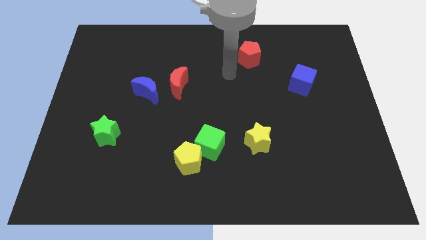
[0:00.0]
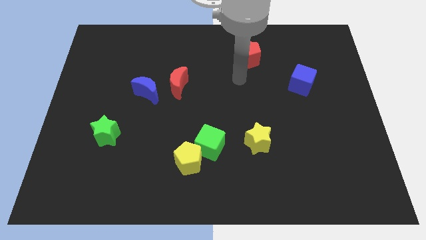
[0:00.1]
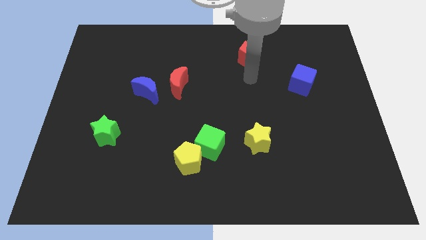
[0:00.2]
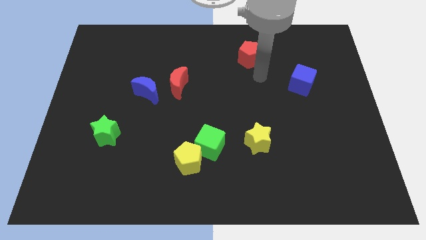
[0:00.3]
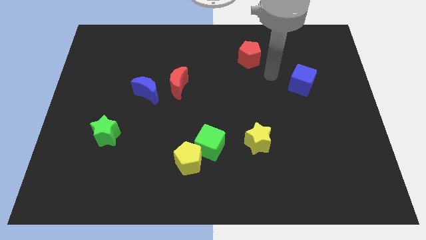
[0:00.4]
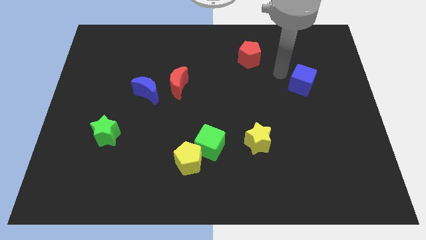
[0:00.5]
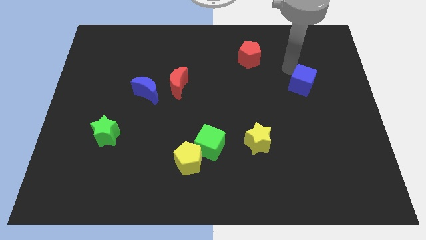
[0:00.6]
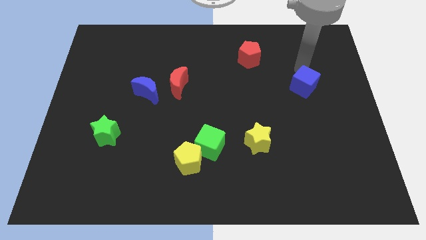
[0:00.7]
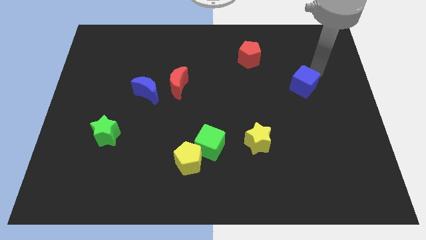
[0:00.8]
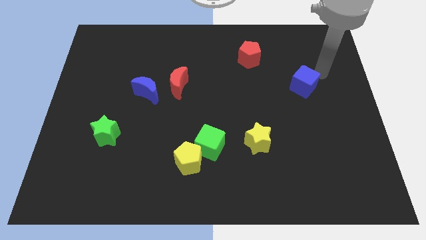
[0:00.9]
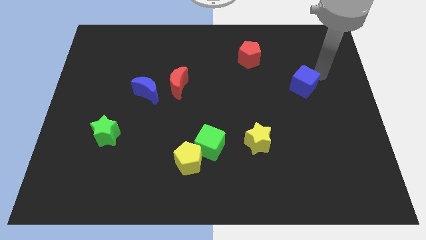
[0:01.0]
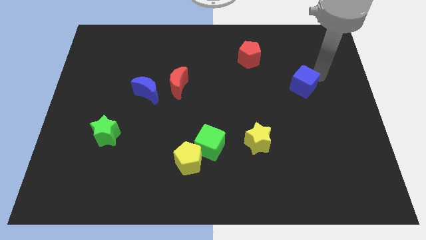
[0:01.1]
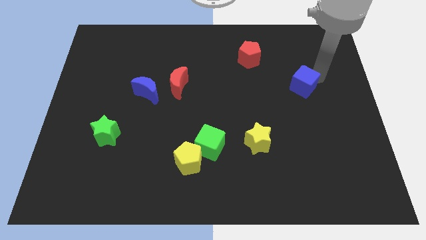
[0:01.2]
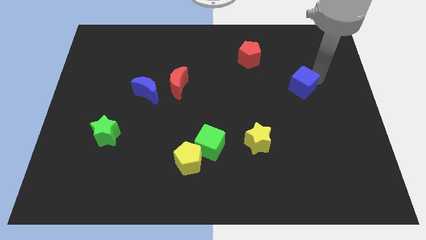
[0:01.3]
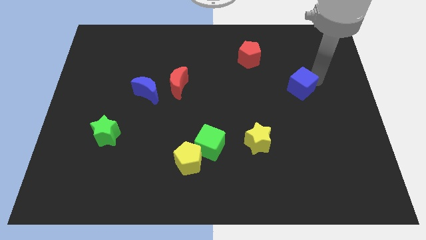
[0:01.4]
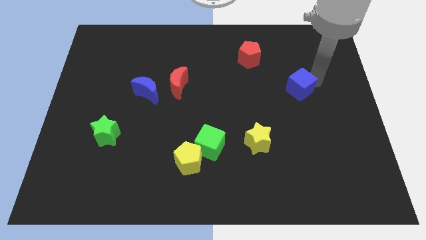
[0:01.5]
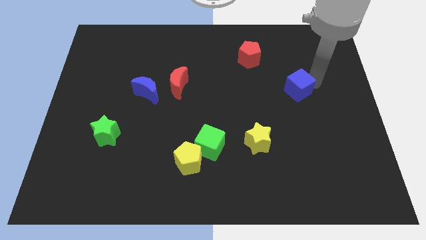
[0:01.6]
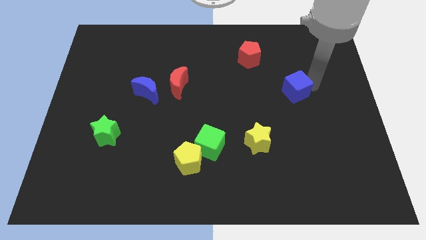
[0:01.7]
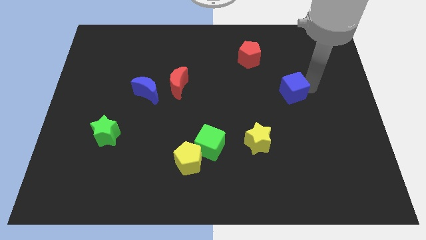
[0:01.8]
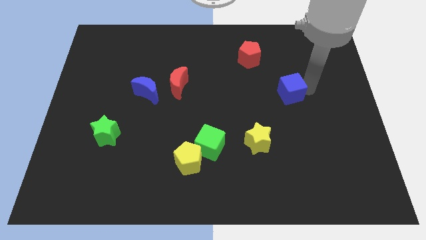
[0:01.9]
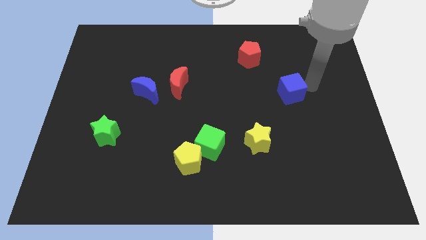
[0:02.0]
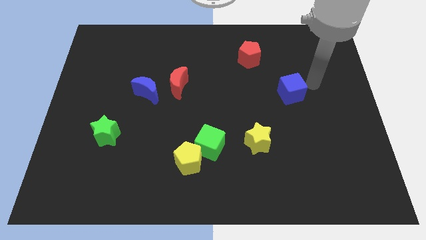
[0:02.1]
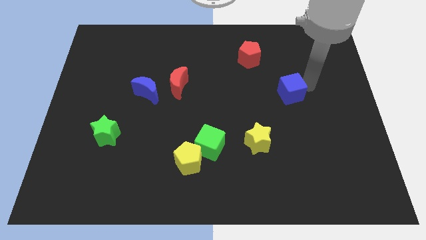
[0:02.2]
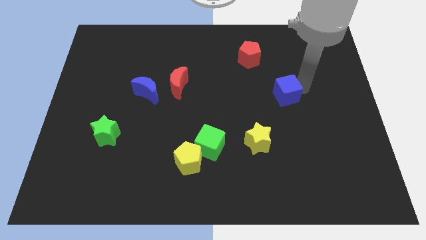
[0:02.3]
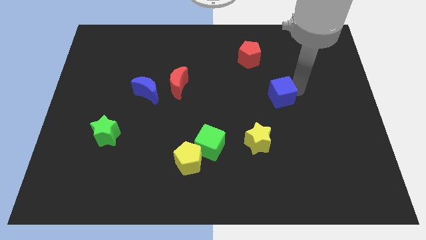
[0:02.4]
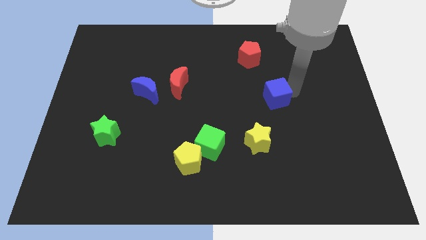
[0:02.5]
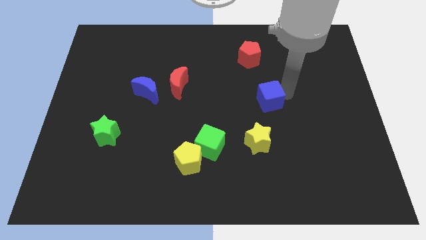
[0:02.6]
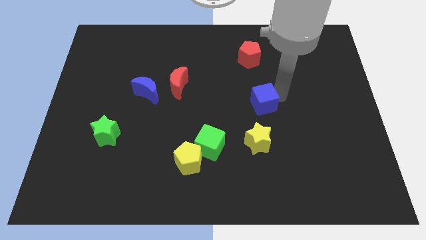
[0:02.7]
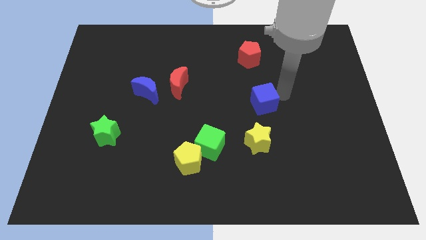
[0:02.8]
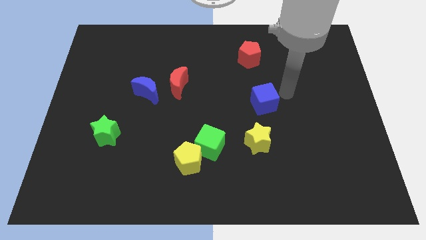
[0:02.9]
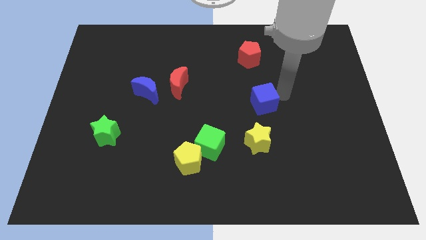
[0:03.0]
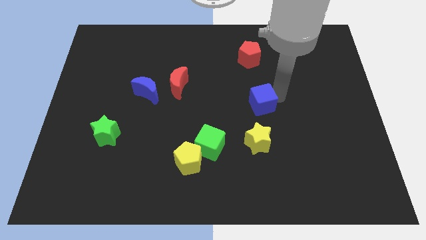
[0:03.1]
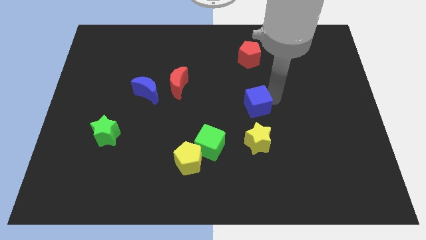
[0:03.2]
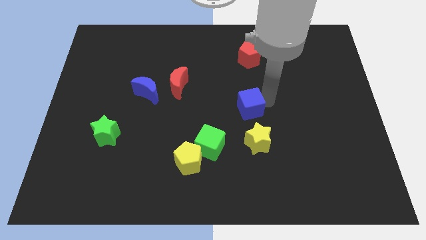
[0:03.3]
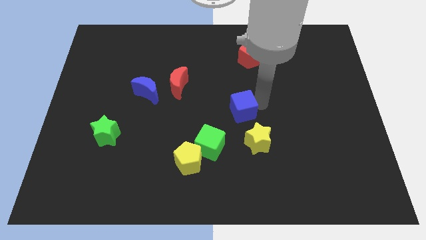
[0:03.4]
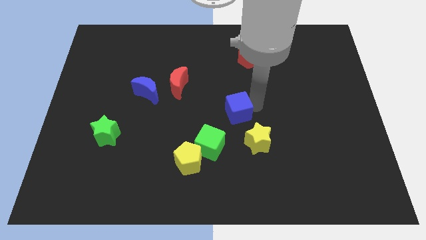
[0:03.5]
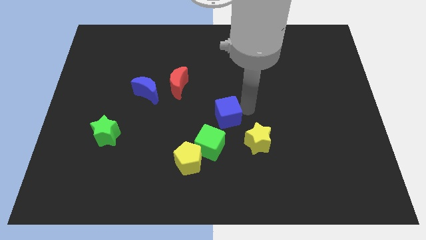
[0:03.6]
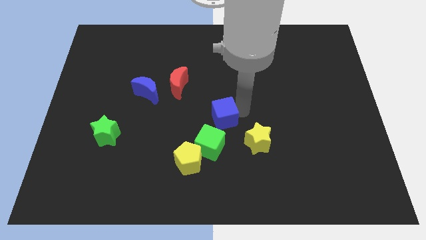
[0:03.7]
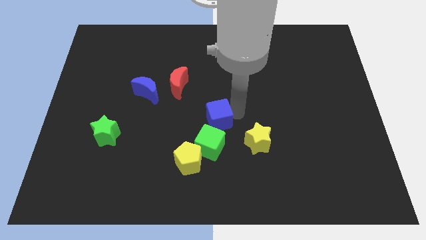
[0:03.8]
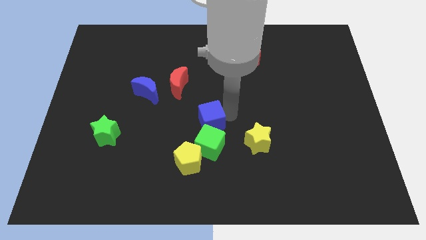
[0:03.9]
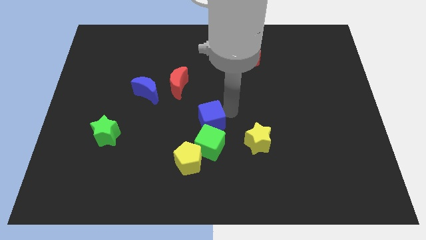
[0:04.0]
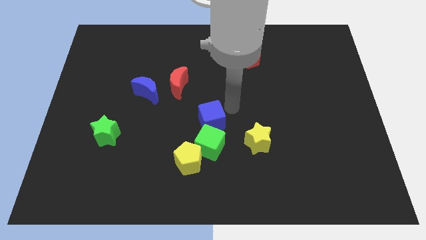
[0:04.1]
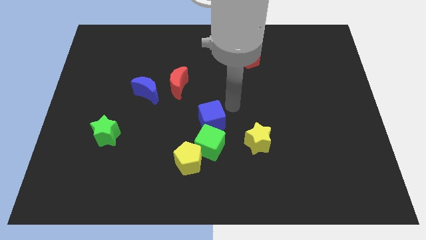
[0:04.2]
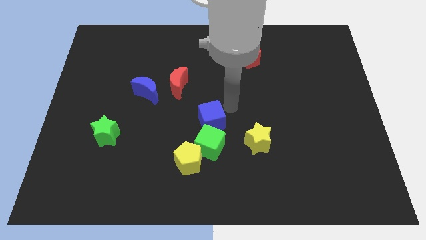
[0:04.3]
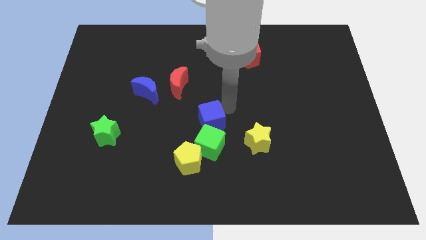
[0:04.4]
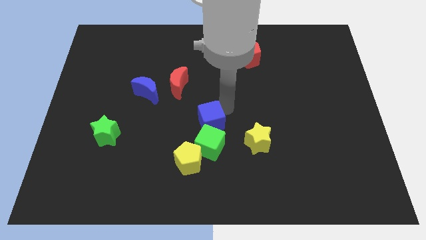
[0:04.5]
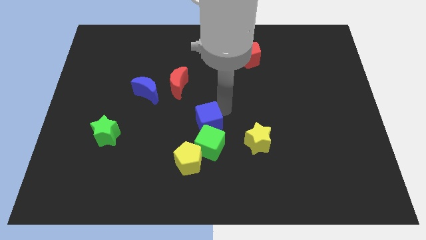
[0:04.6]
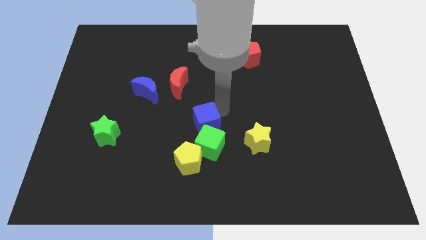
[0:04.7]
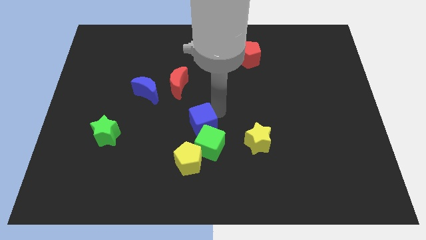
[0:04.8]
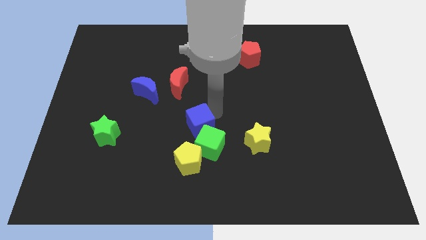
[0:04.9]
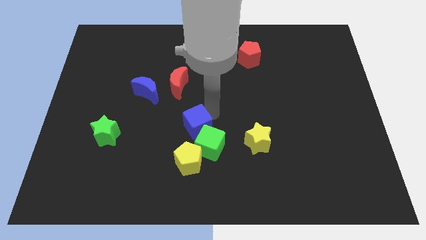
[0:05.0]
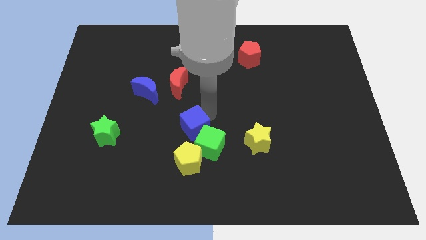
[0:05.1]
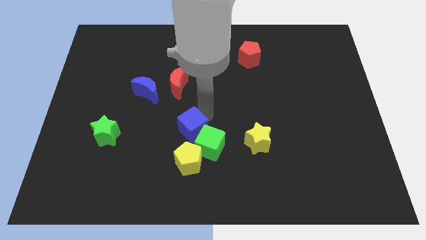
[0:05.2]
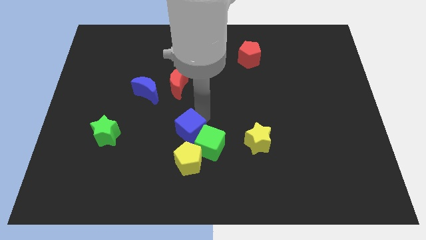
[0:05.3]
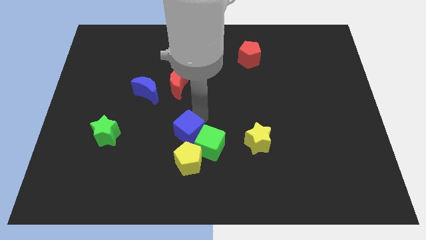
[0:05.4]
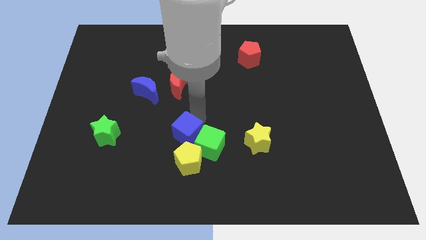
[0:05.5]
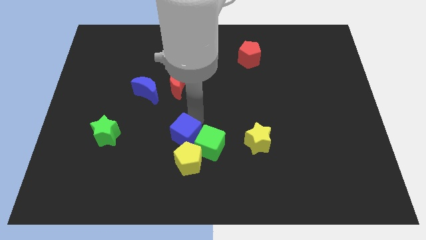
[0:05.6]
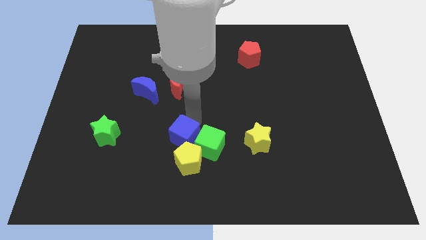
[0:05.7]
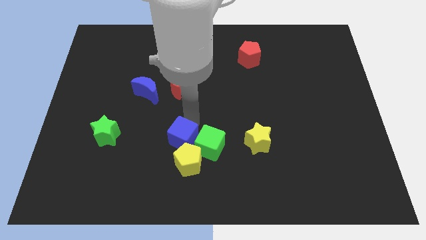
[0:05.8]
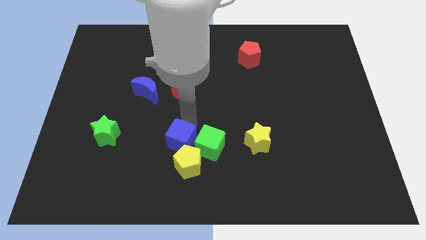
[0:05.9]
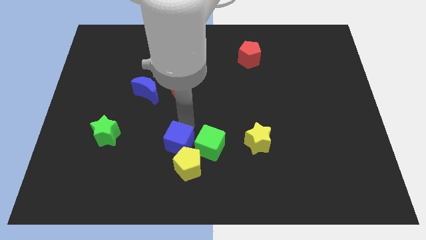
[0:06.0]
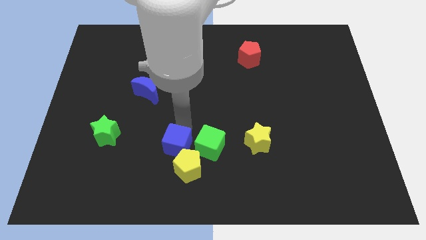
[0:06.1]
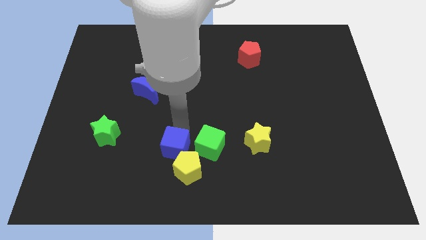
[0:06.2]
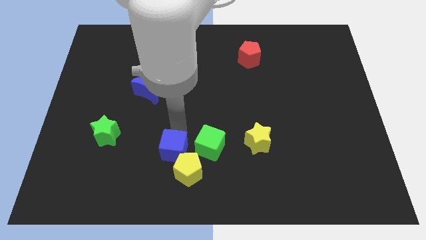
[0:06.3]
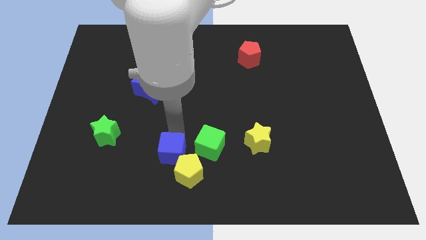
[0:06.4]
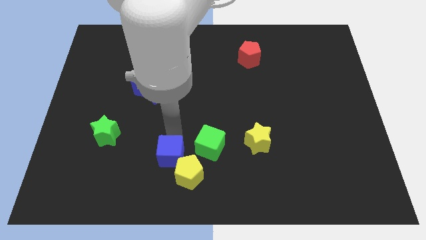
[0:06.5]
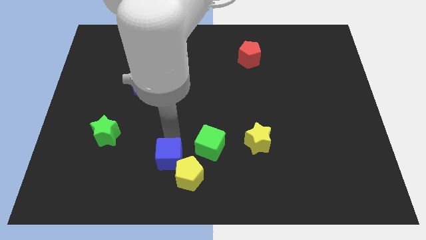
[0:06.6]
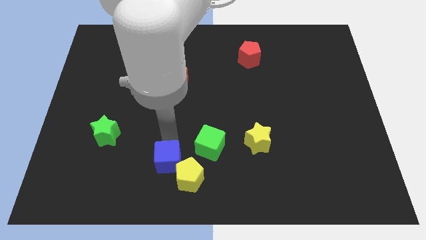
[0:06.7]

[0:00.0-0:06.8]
push the blue cube close to the yellow pentagon

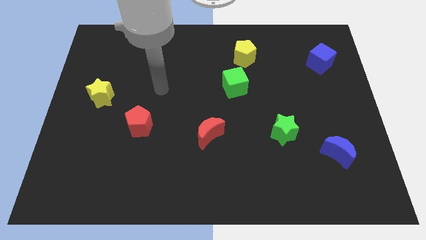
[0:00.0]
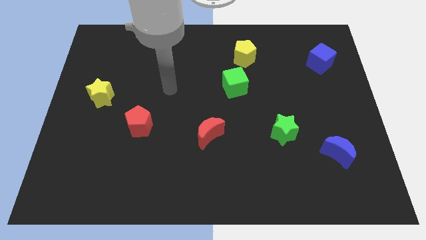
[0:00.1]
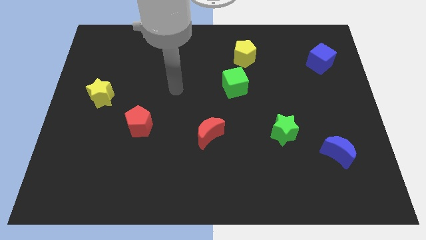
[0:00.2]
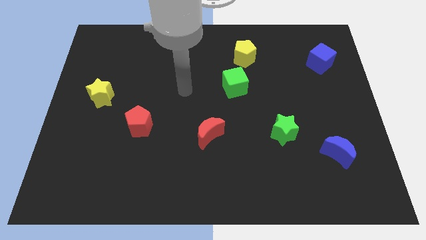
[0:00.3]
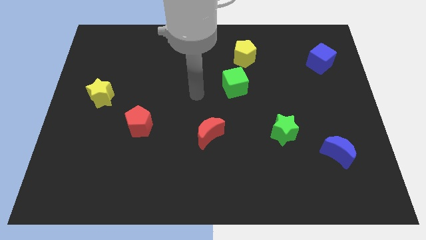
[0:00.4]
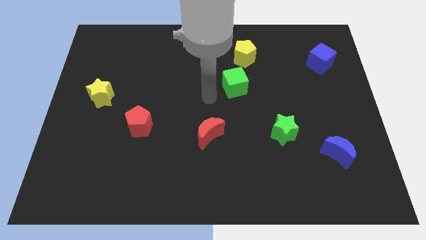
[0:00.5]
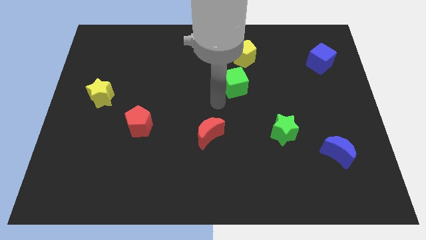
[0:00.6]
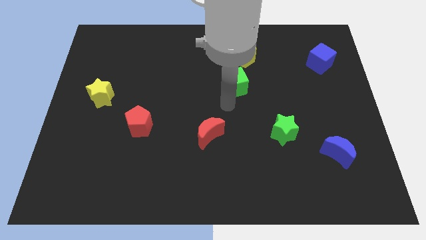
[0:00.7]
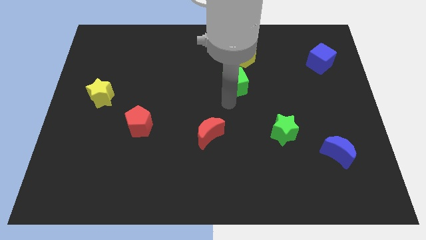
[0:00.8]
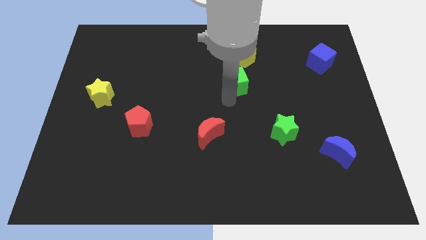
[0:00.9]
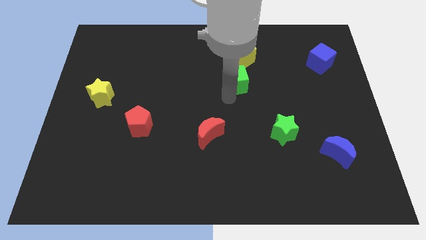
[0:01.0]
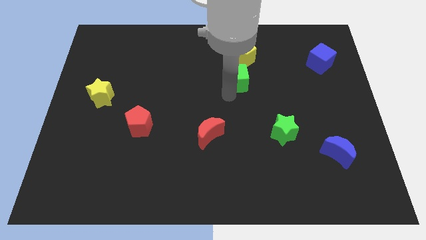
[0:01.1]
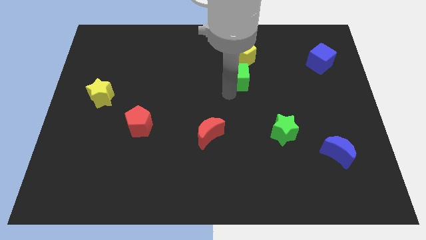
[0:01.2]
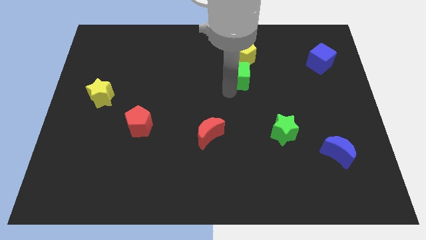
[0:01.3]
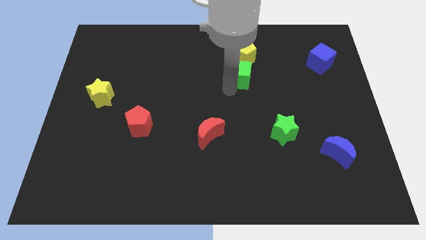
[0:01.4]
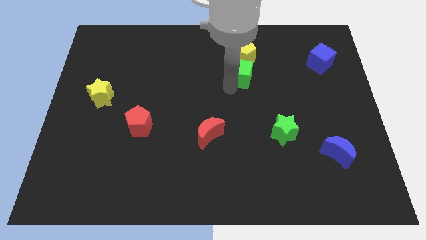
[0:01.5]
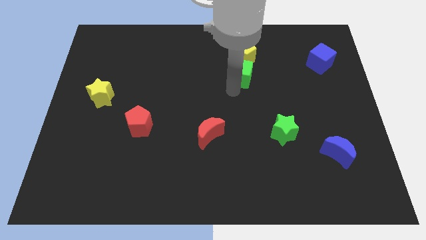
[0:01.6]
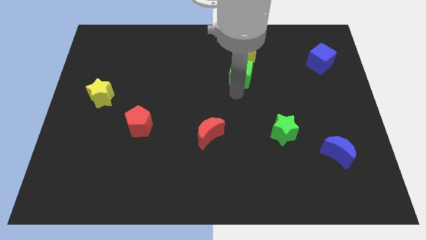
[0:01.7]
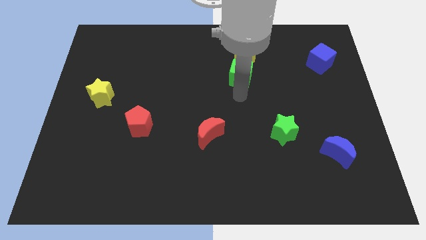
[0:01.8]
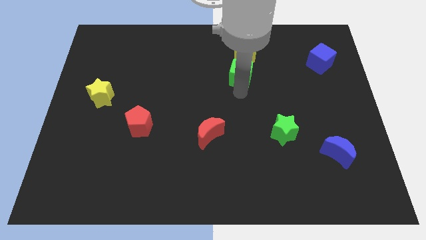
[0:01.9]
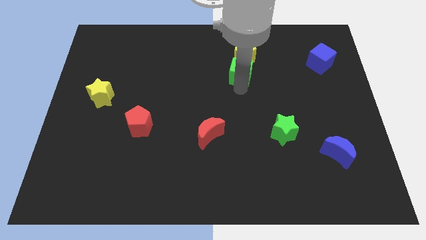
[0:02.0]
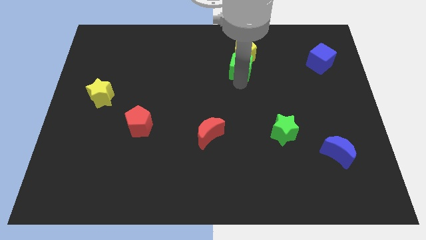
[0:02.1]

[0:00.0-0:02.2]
put the green cube close to the yellow pentagon
